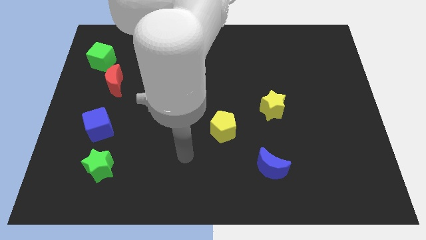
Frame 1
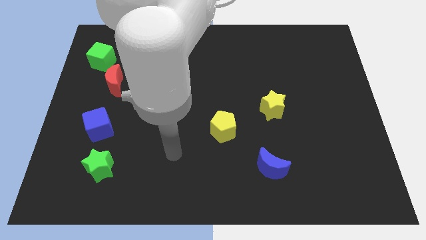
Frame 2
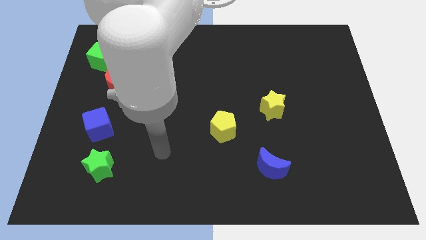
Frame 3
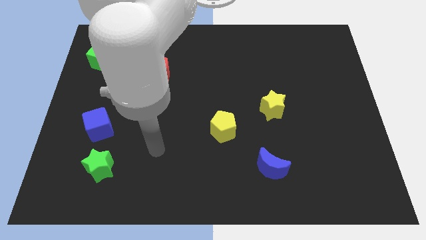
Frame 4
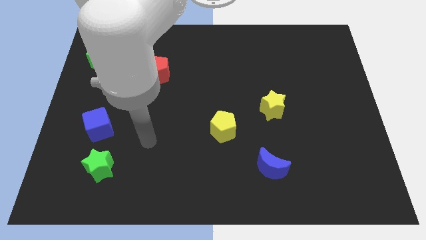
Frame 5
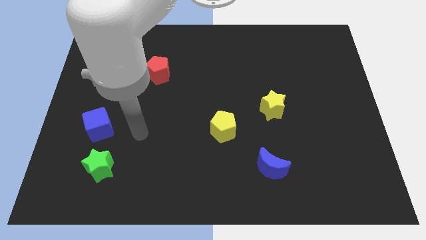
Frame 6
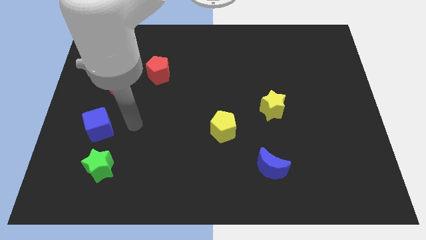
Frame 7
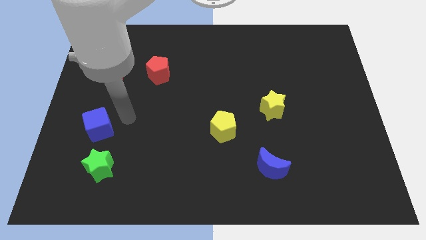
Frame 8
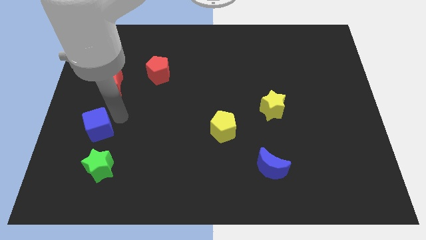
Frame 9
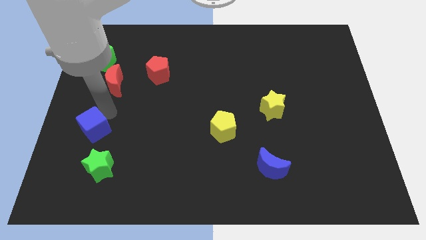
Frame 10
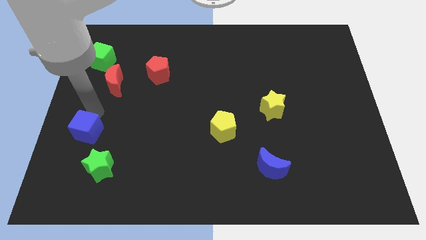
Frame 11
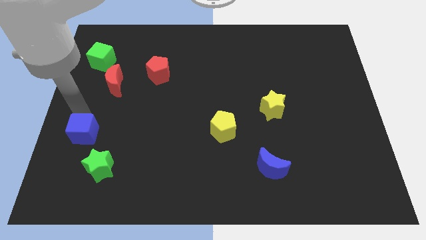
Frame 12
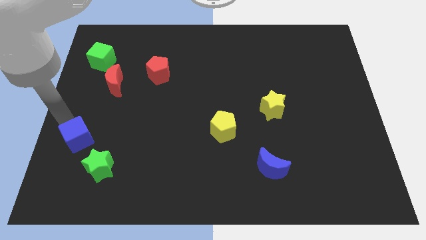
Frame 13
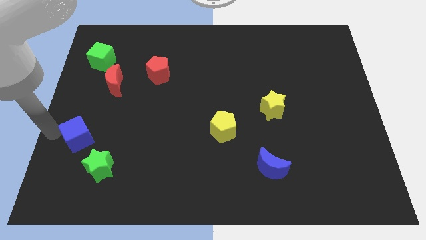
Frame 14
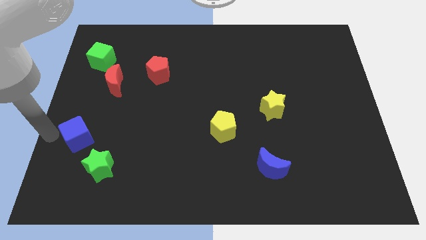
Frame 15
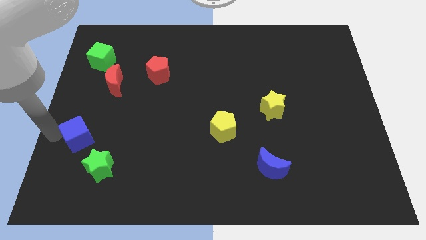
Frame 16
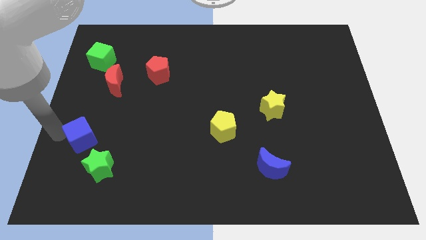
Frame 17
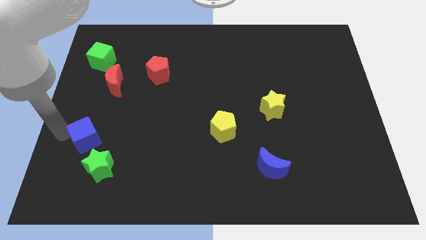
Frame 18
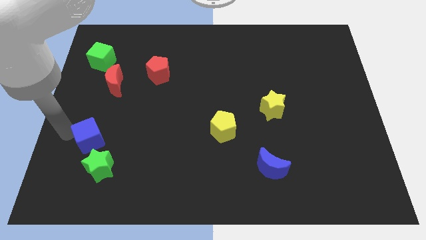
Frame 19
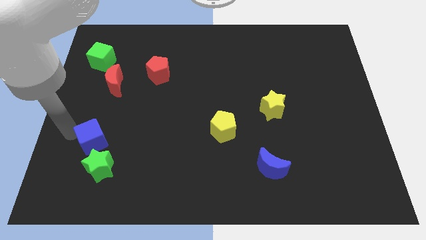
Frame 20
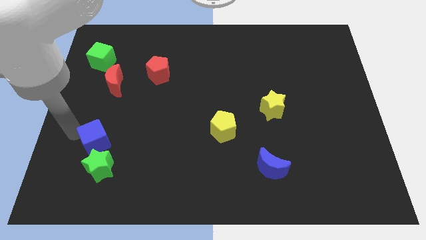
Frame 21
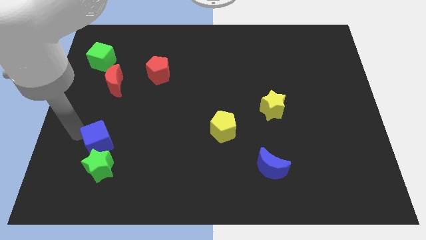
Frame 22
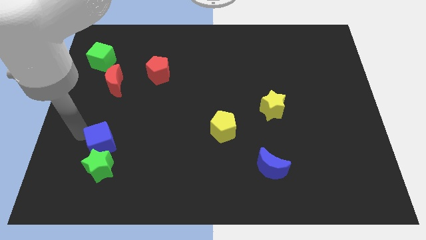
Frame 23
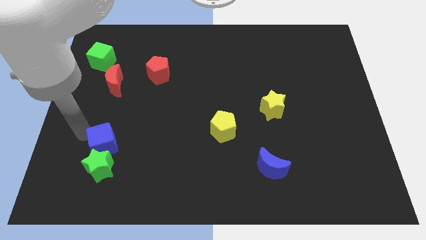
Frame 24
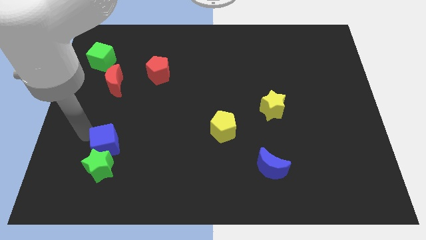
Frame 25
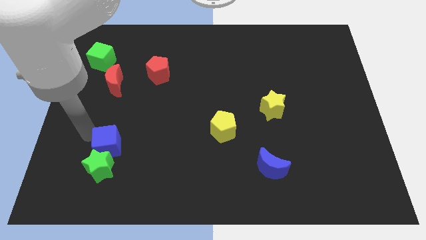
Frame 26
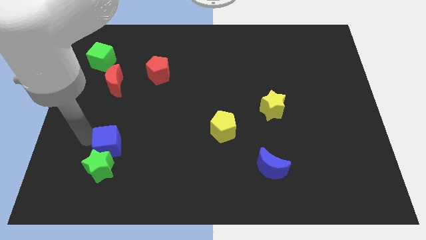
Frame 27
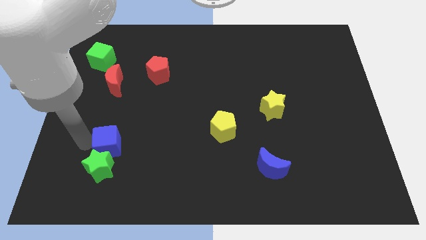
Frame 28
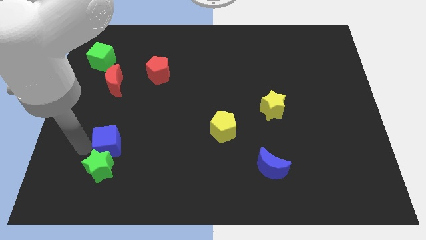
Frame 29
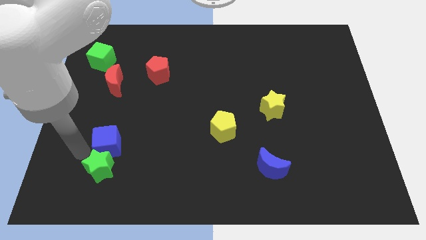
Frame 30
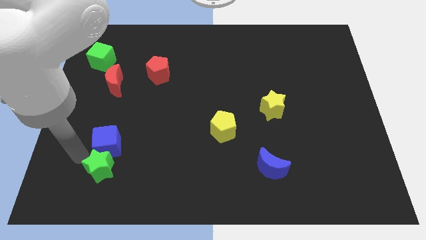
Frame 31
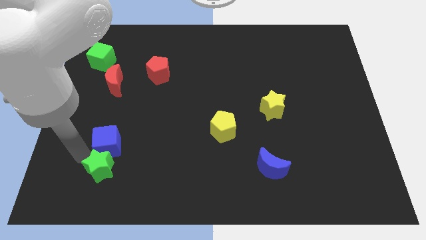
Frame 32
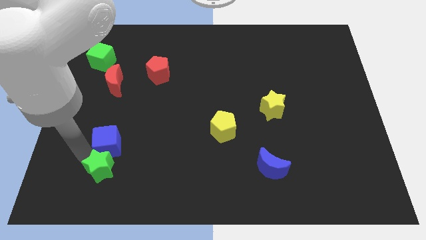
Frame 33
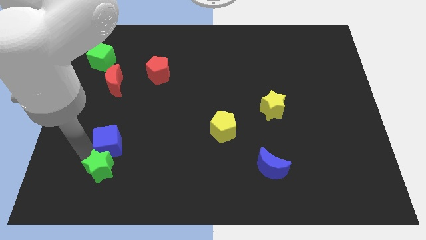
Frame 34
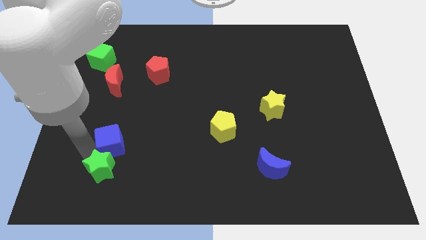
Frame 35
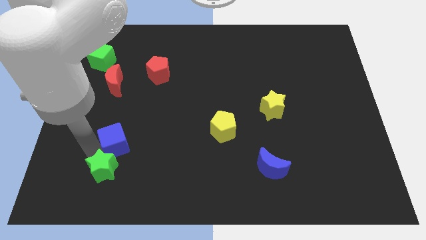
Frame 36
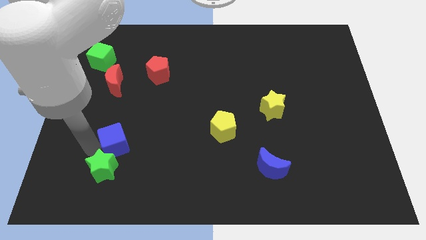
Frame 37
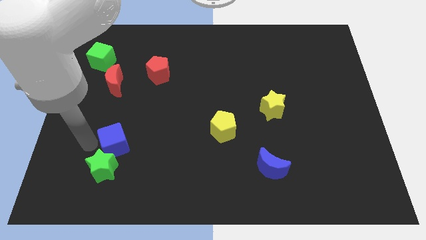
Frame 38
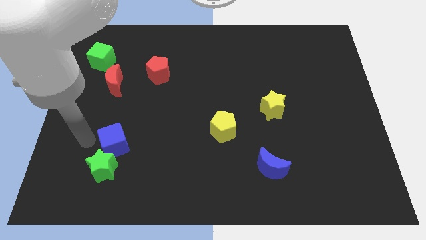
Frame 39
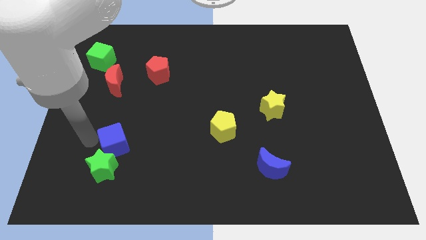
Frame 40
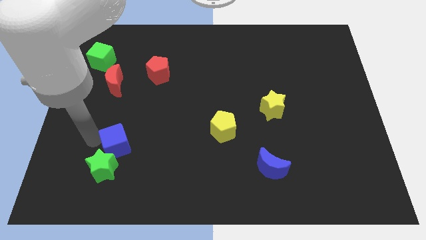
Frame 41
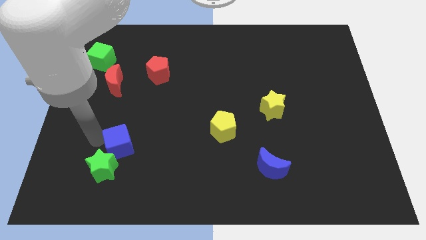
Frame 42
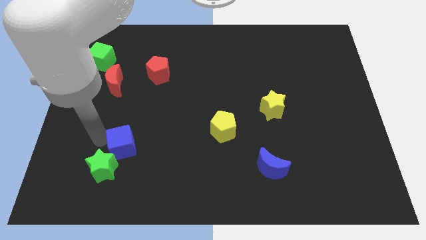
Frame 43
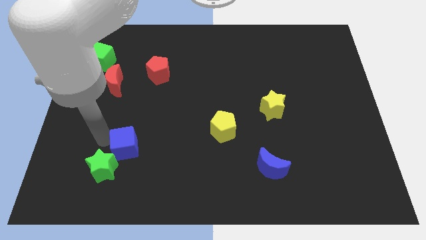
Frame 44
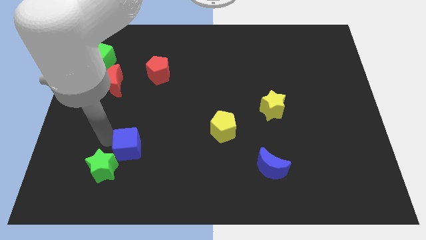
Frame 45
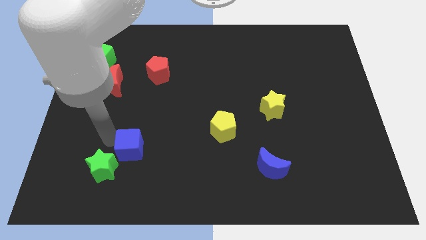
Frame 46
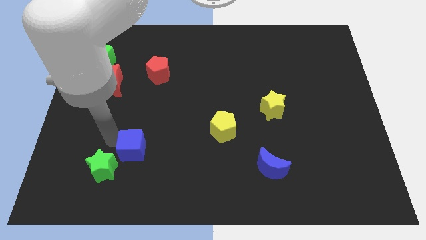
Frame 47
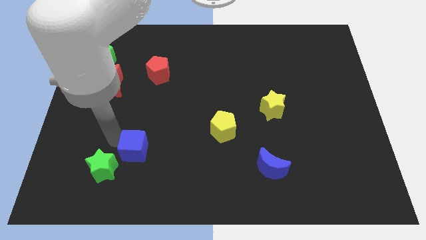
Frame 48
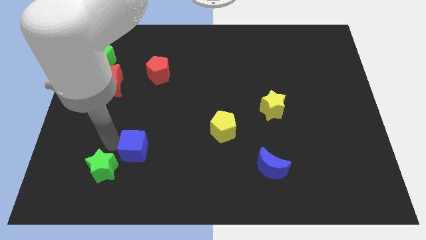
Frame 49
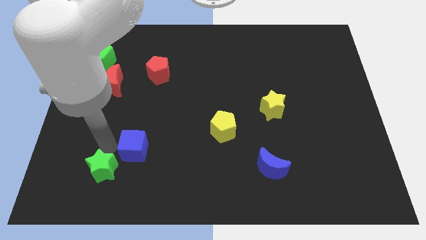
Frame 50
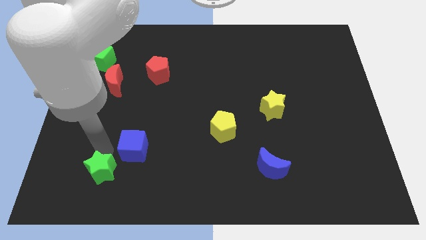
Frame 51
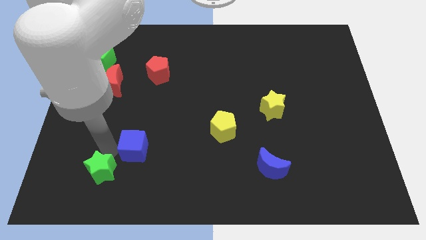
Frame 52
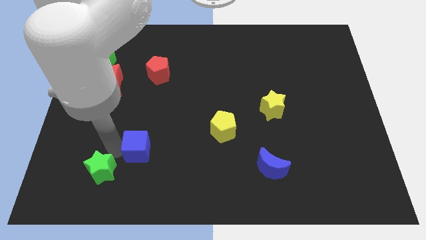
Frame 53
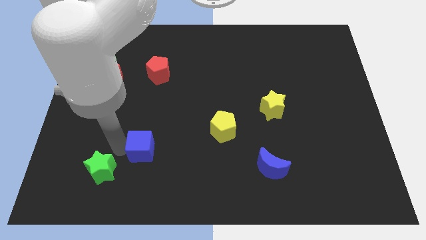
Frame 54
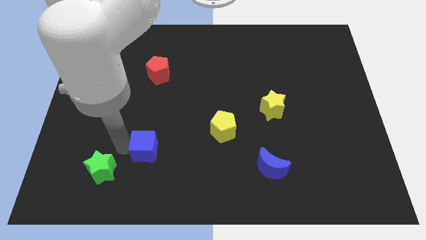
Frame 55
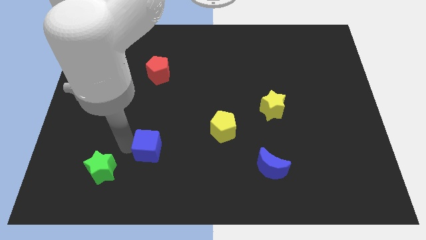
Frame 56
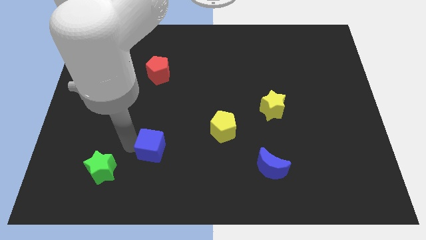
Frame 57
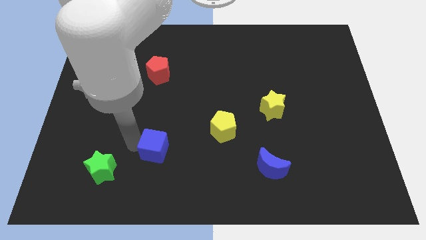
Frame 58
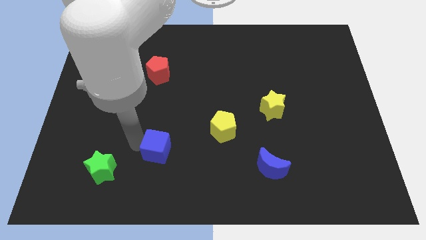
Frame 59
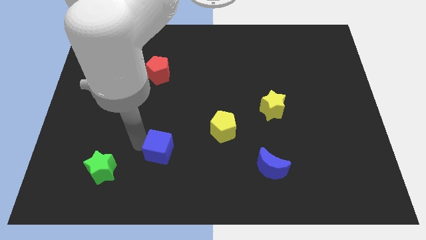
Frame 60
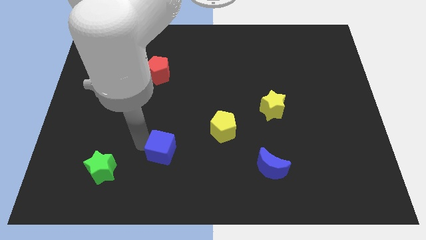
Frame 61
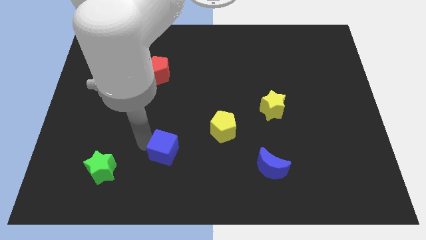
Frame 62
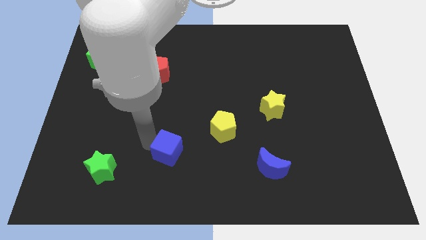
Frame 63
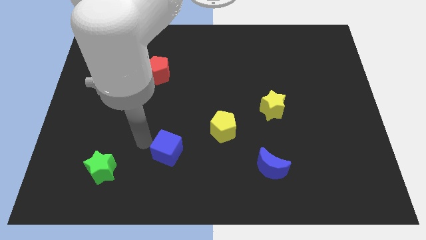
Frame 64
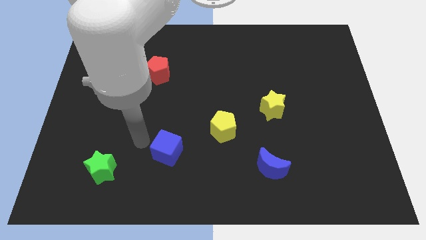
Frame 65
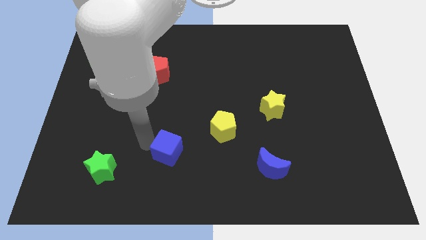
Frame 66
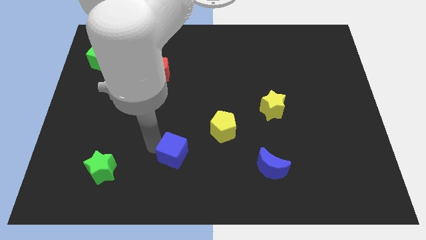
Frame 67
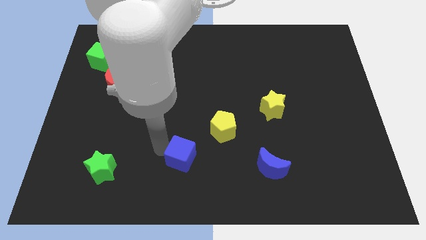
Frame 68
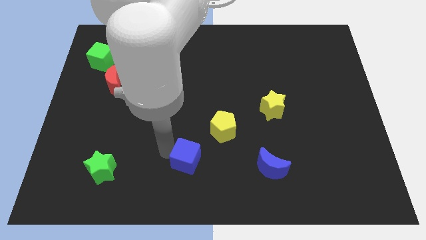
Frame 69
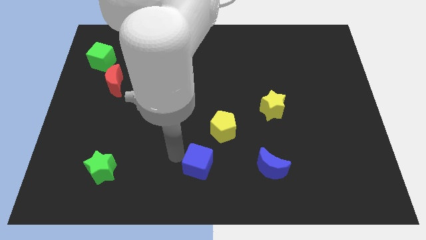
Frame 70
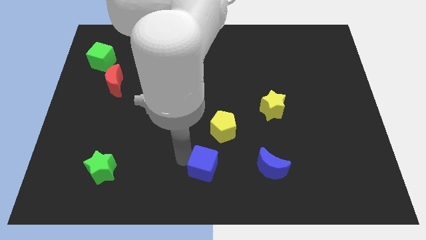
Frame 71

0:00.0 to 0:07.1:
slide the blue cube to the bottom side of the yellow pentagon
